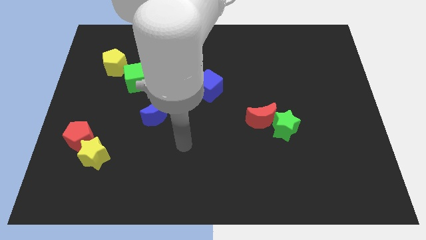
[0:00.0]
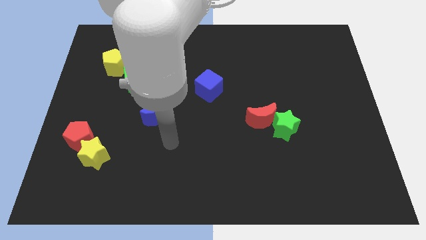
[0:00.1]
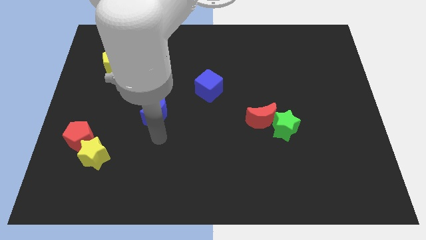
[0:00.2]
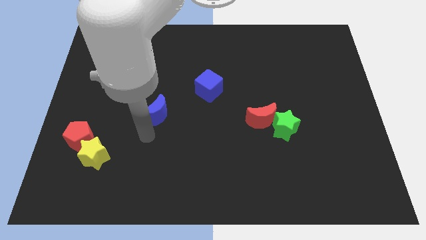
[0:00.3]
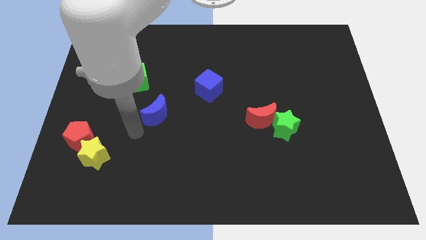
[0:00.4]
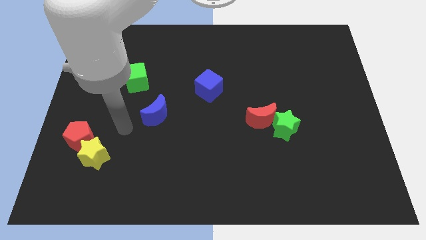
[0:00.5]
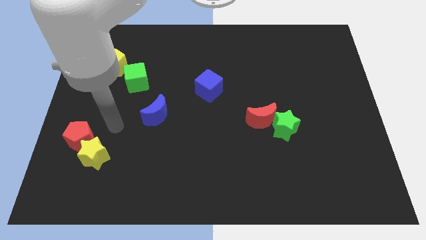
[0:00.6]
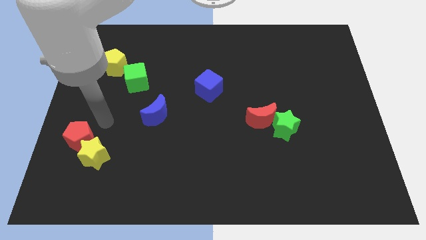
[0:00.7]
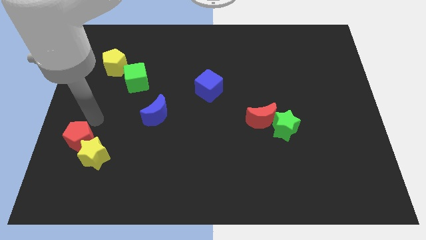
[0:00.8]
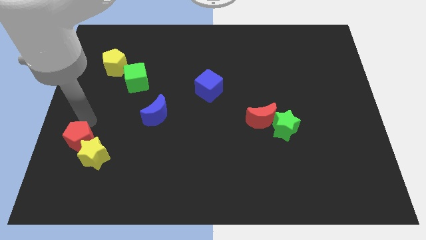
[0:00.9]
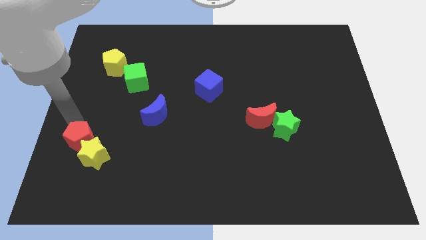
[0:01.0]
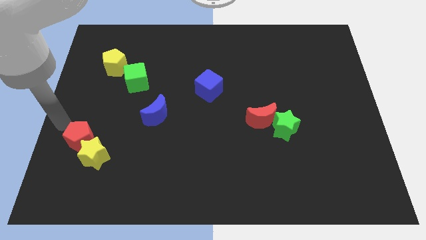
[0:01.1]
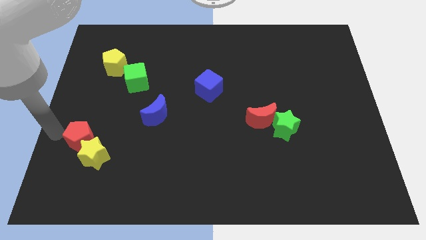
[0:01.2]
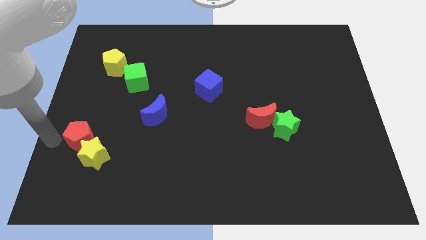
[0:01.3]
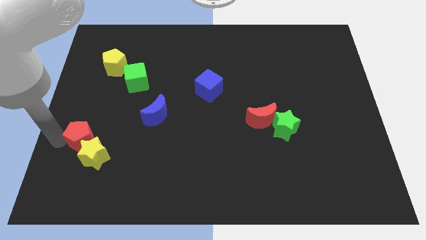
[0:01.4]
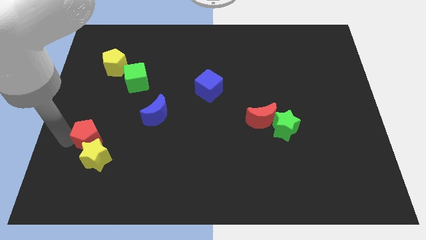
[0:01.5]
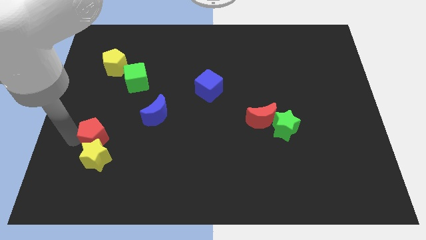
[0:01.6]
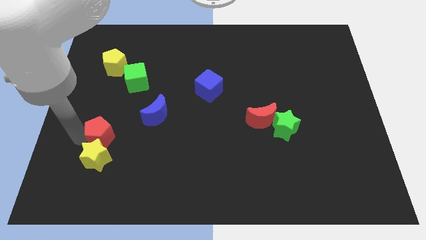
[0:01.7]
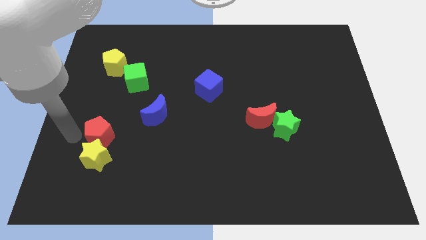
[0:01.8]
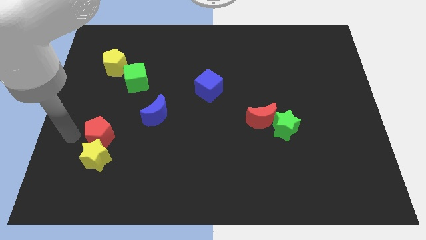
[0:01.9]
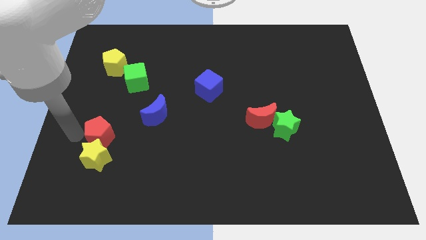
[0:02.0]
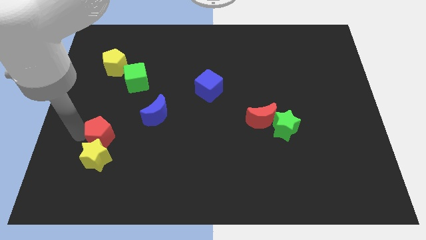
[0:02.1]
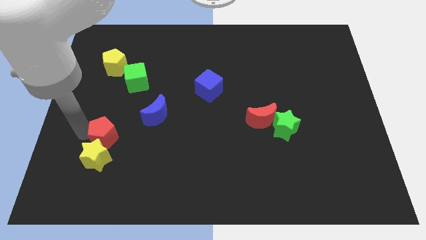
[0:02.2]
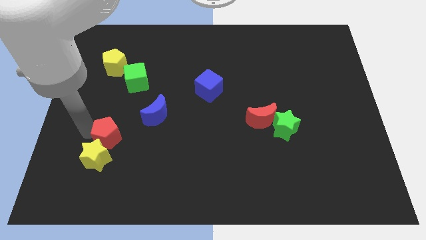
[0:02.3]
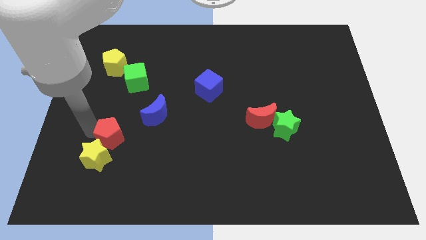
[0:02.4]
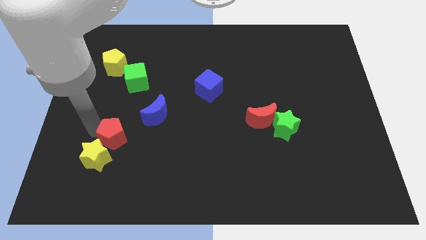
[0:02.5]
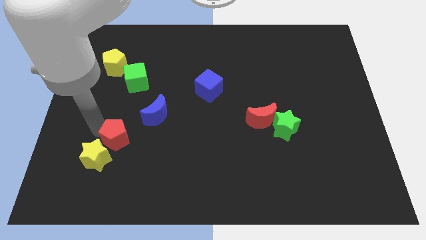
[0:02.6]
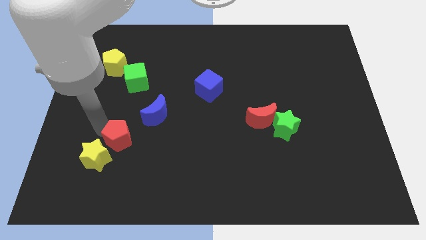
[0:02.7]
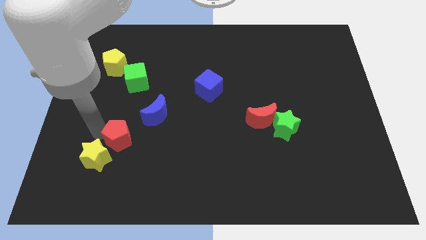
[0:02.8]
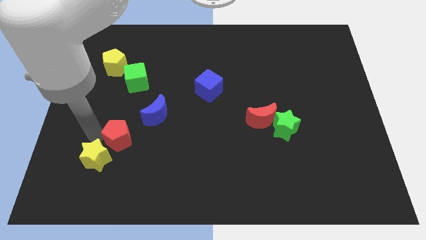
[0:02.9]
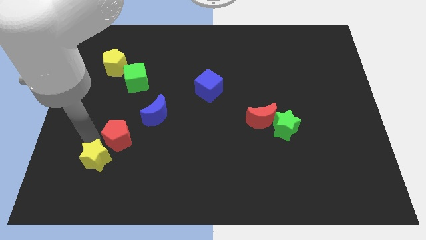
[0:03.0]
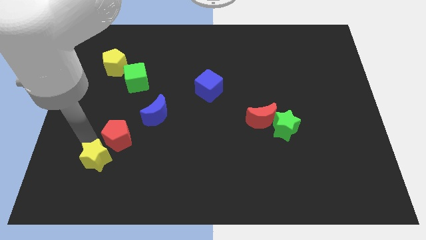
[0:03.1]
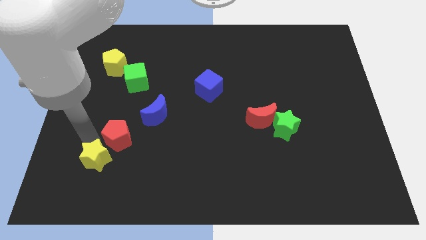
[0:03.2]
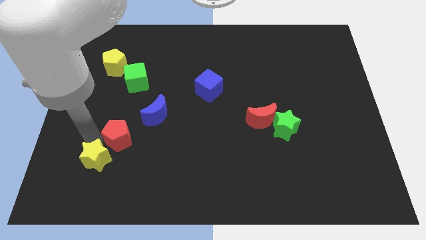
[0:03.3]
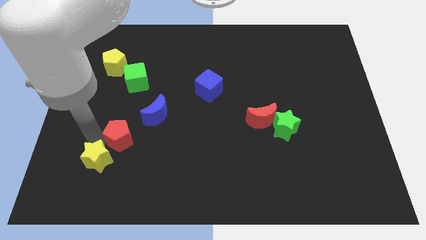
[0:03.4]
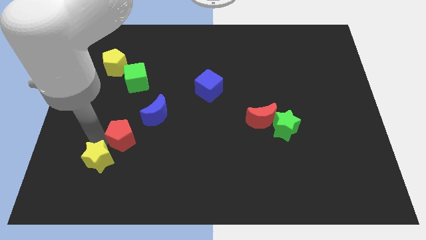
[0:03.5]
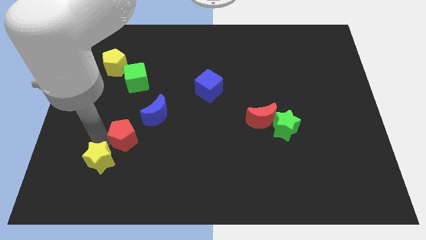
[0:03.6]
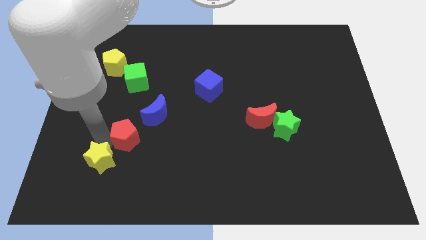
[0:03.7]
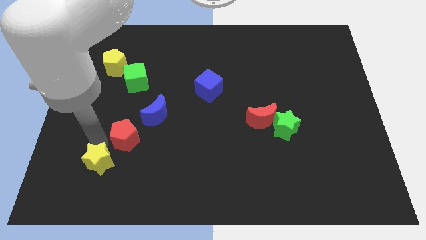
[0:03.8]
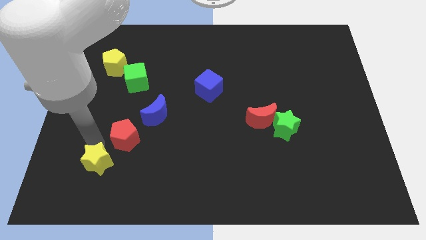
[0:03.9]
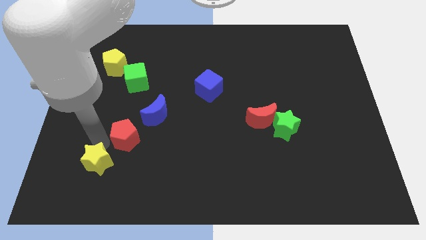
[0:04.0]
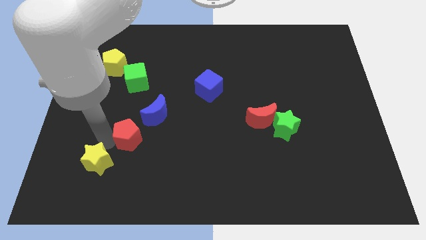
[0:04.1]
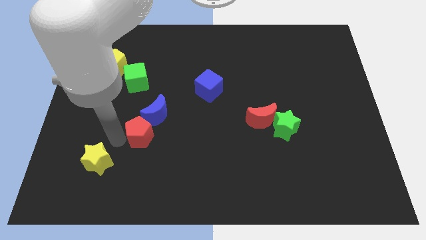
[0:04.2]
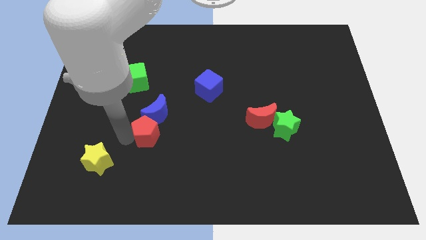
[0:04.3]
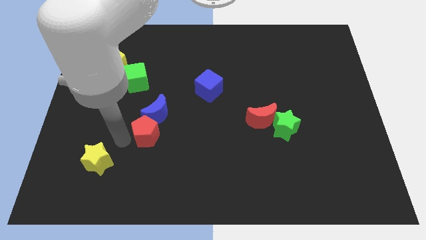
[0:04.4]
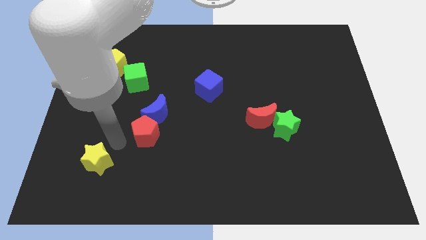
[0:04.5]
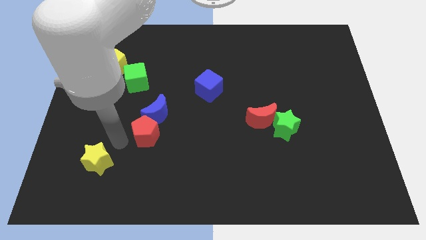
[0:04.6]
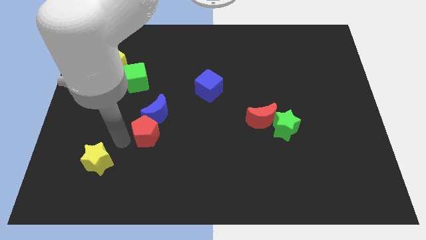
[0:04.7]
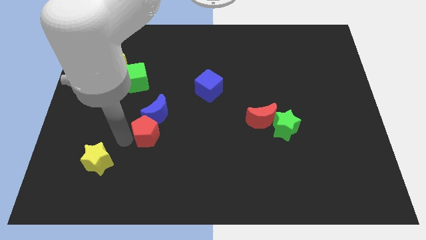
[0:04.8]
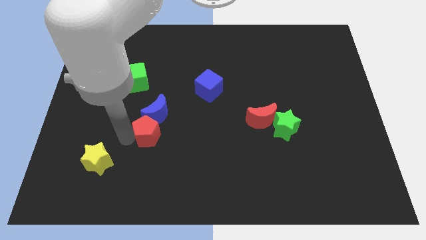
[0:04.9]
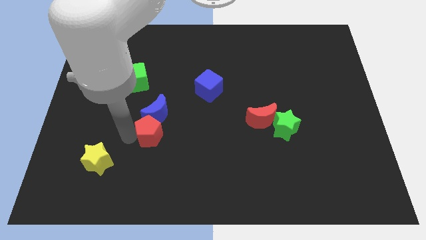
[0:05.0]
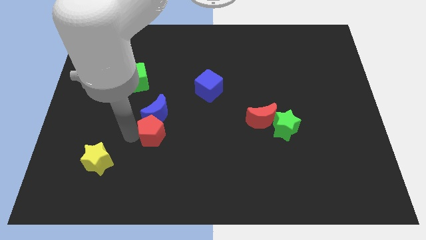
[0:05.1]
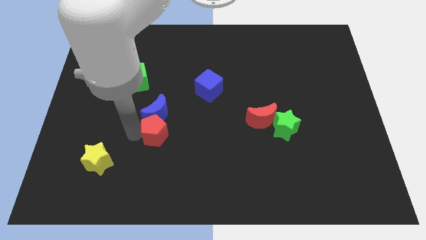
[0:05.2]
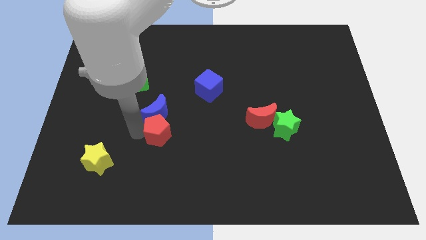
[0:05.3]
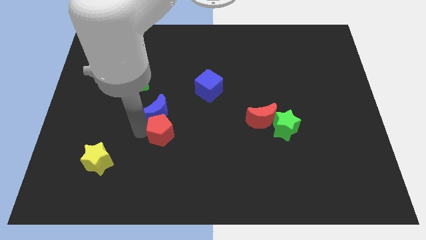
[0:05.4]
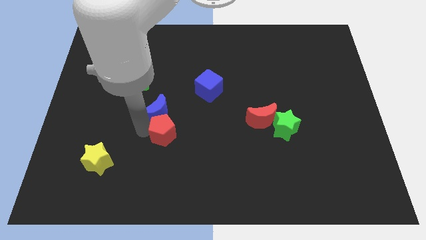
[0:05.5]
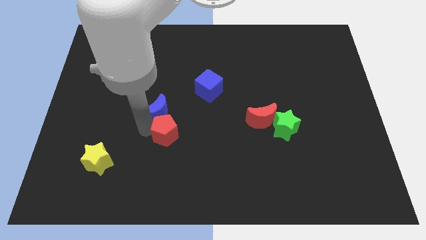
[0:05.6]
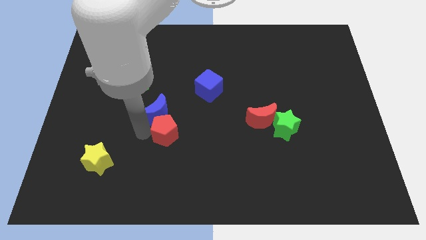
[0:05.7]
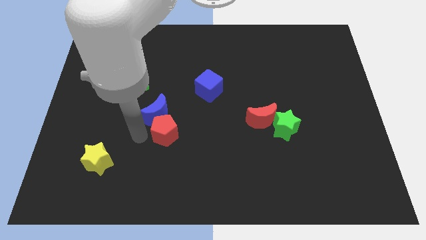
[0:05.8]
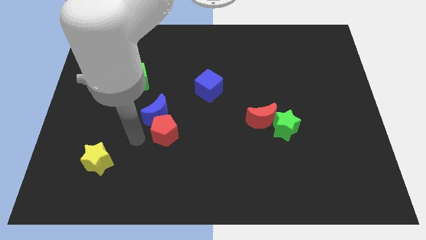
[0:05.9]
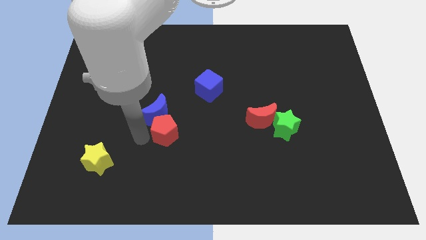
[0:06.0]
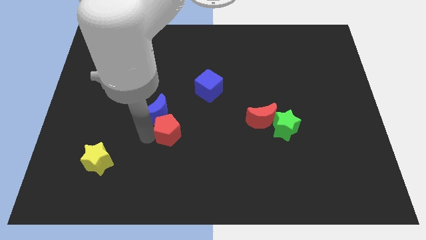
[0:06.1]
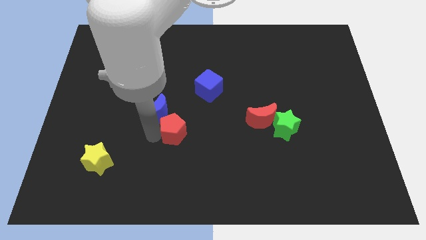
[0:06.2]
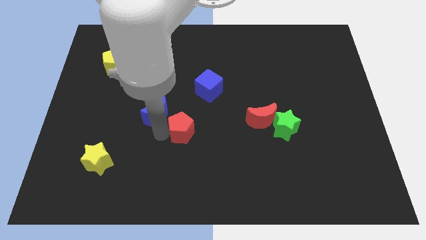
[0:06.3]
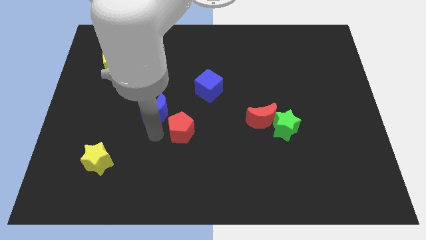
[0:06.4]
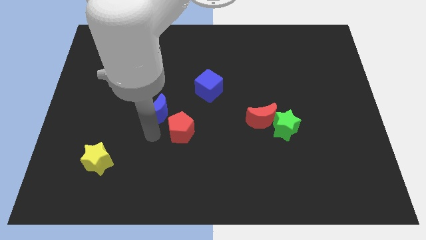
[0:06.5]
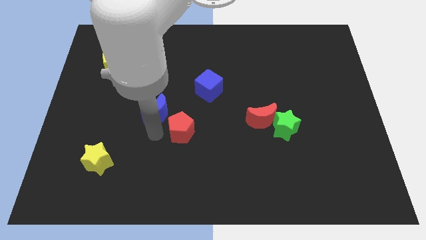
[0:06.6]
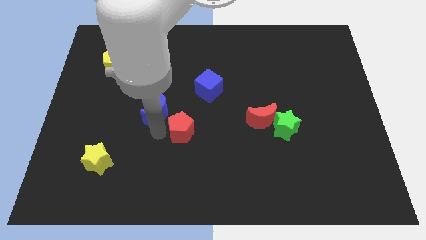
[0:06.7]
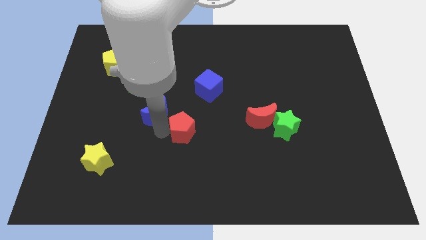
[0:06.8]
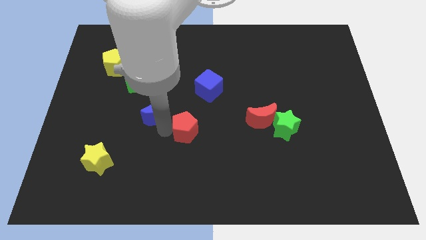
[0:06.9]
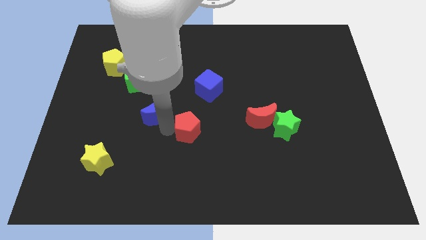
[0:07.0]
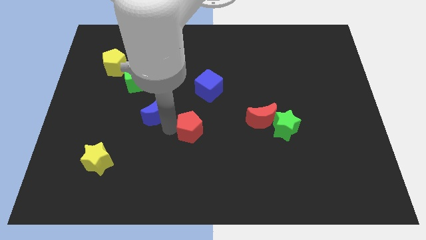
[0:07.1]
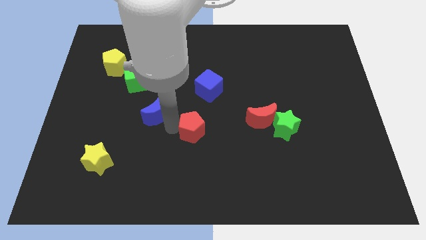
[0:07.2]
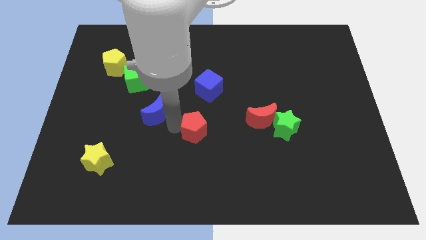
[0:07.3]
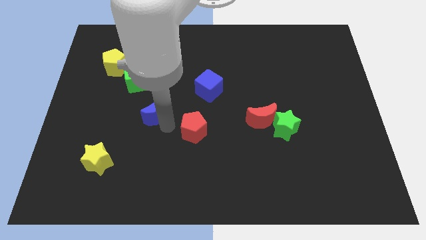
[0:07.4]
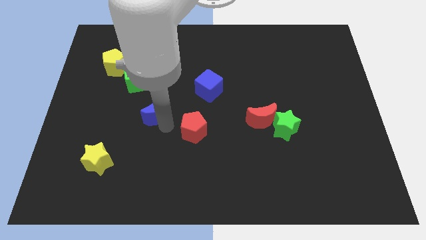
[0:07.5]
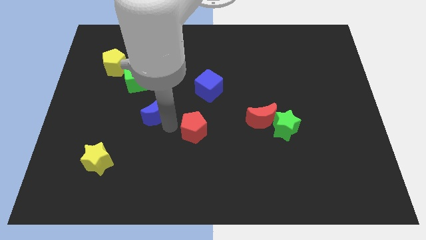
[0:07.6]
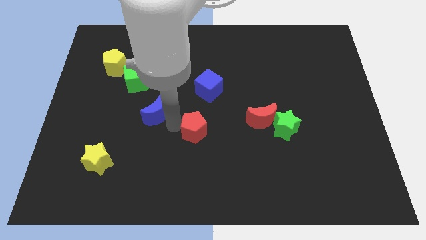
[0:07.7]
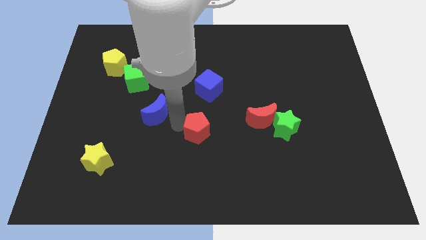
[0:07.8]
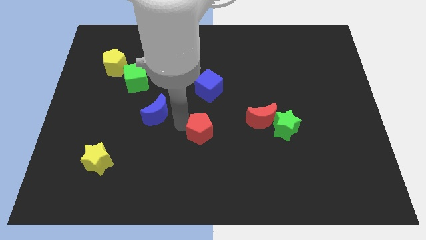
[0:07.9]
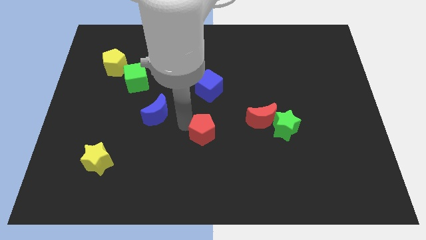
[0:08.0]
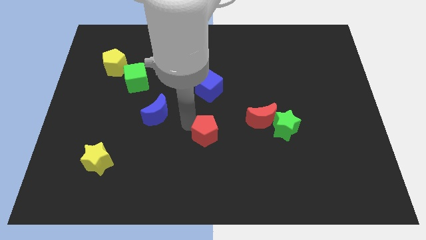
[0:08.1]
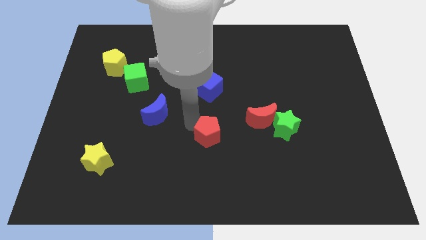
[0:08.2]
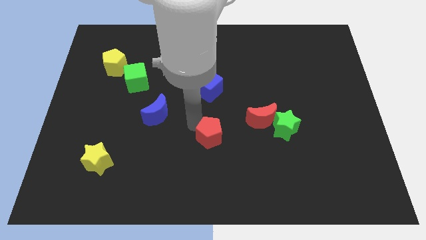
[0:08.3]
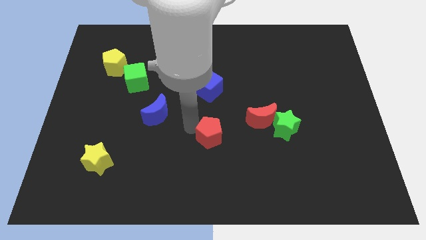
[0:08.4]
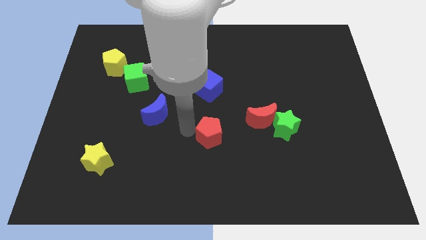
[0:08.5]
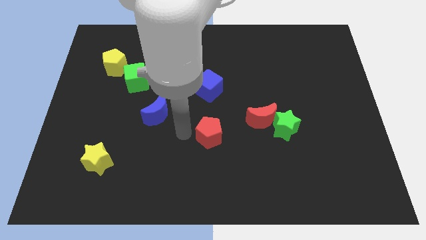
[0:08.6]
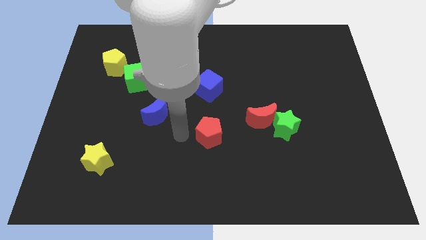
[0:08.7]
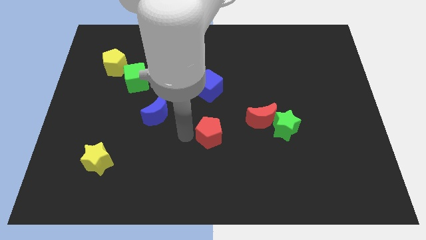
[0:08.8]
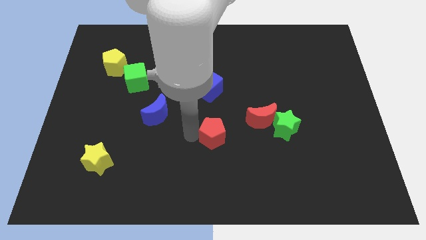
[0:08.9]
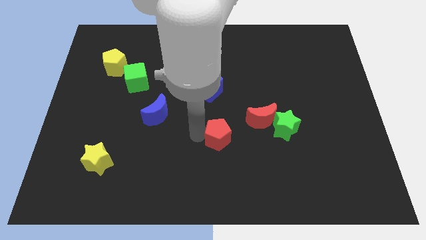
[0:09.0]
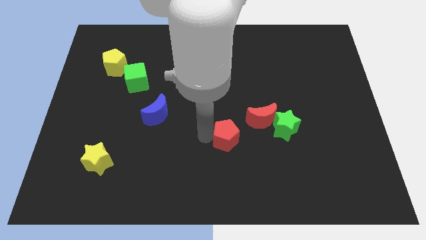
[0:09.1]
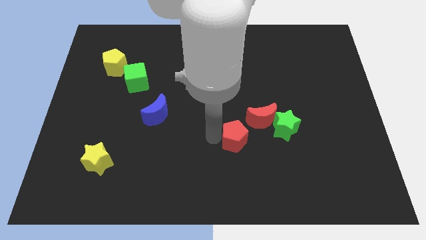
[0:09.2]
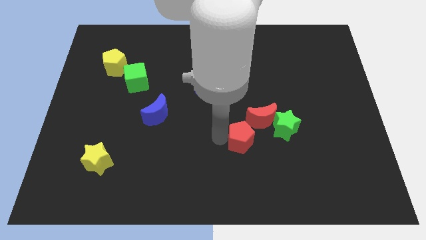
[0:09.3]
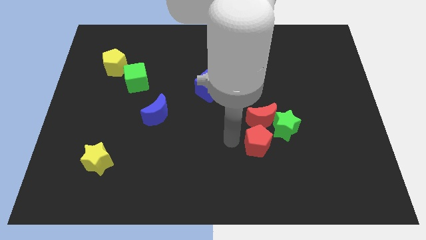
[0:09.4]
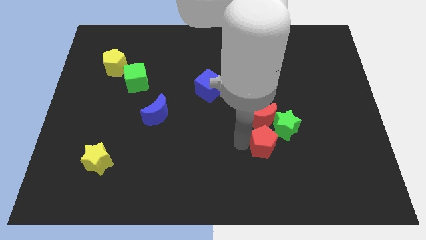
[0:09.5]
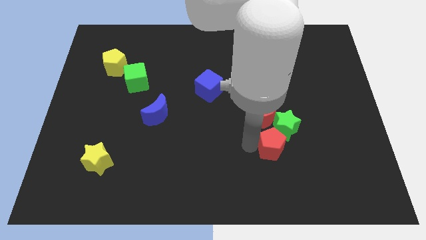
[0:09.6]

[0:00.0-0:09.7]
push the red pentagon close to the green star
